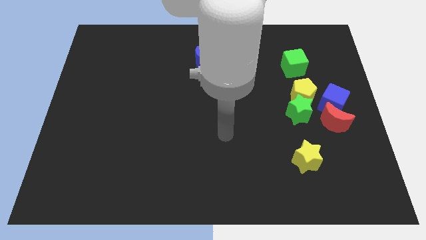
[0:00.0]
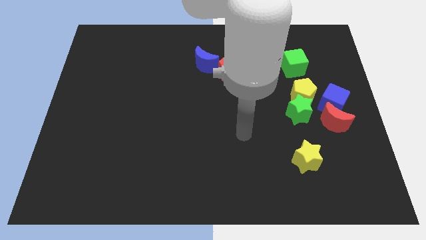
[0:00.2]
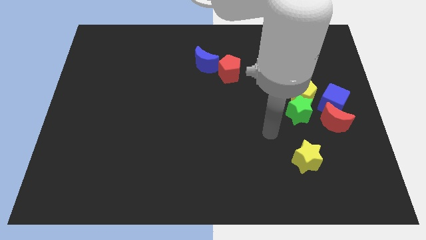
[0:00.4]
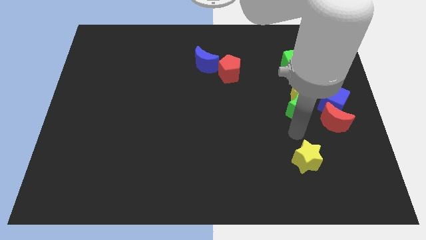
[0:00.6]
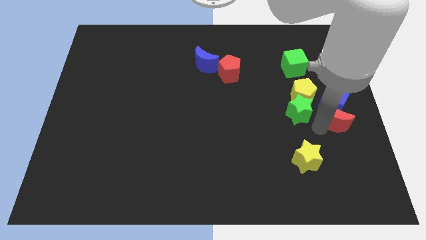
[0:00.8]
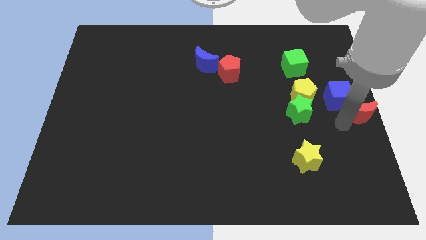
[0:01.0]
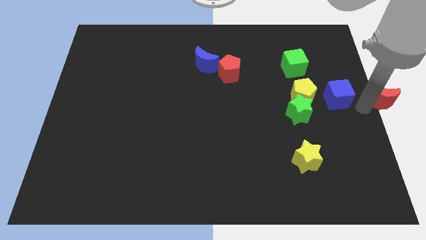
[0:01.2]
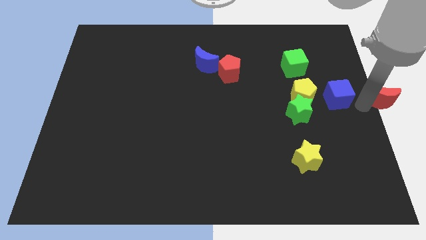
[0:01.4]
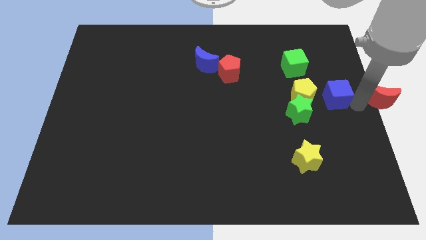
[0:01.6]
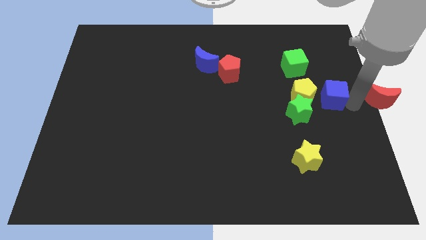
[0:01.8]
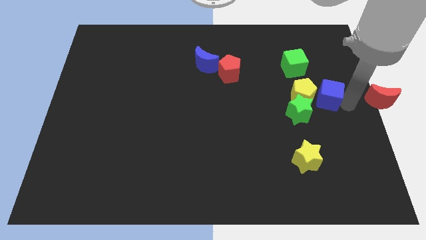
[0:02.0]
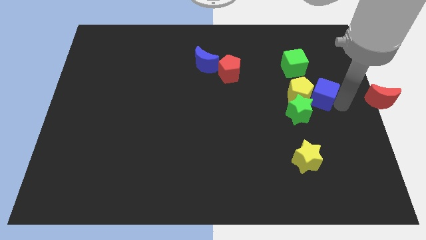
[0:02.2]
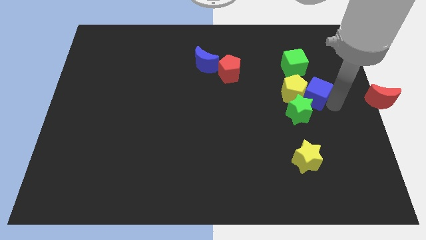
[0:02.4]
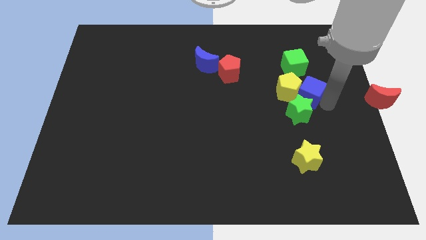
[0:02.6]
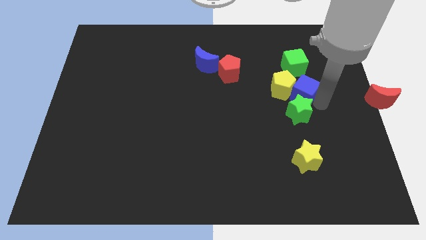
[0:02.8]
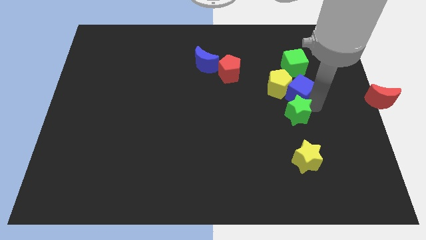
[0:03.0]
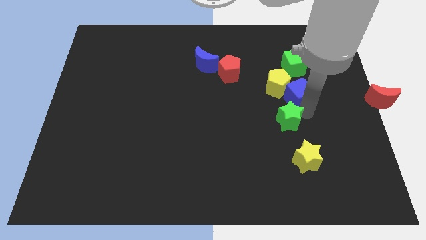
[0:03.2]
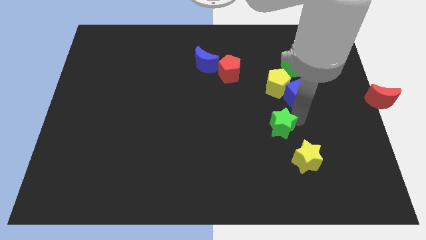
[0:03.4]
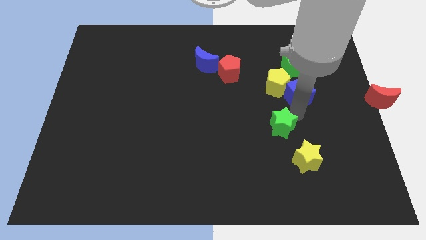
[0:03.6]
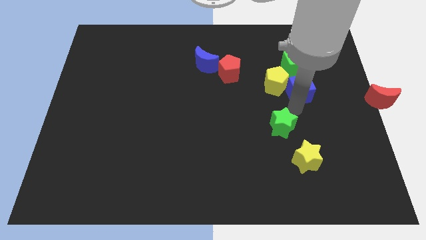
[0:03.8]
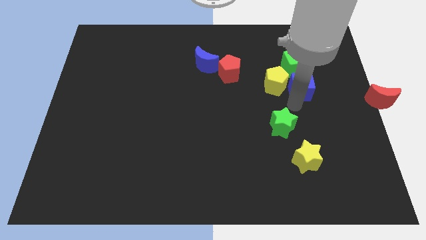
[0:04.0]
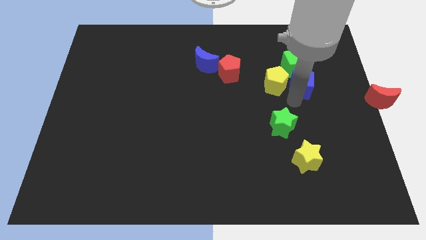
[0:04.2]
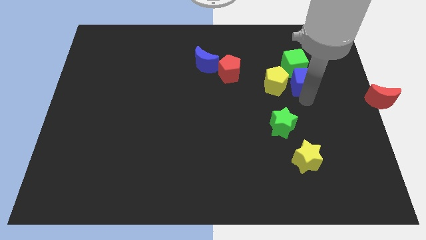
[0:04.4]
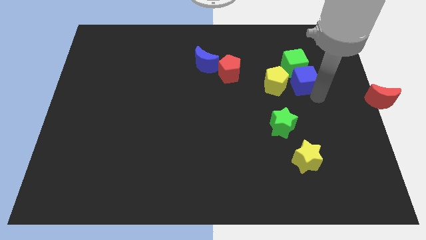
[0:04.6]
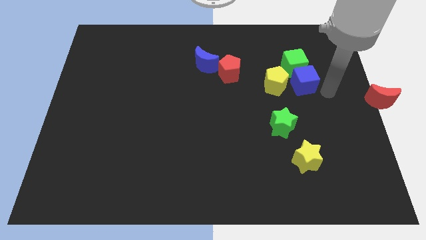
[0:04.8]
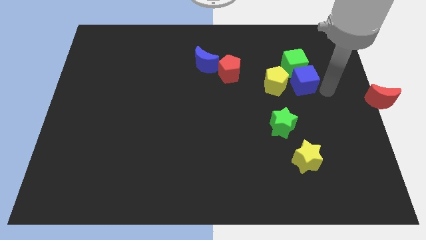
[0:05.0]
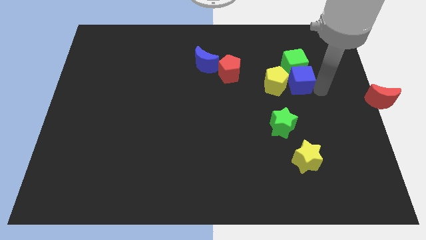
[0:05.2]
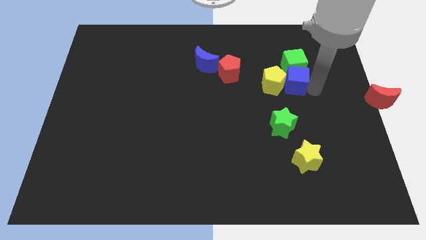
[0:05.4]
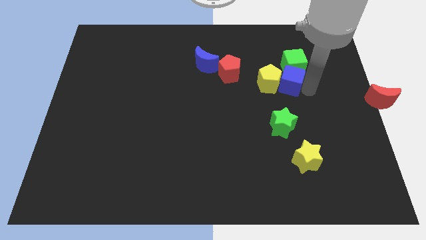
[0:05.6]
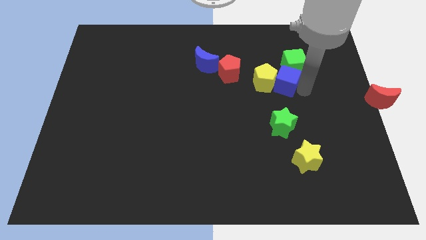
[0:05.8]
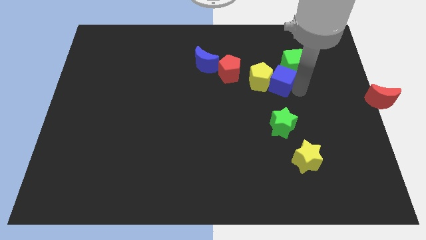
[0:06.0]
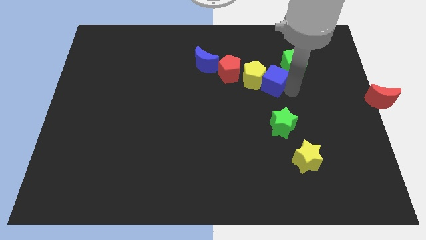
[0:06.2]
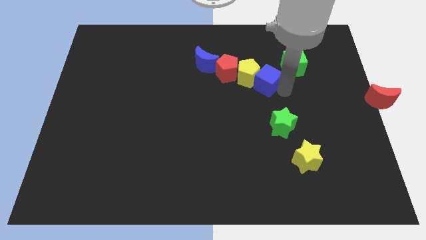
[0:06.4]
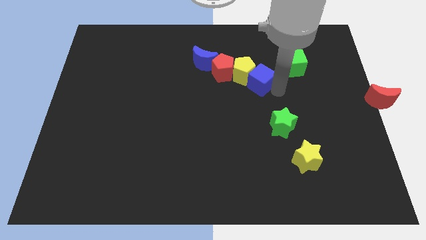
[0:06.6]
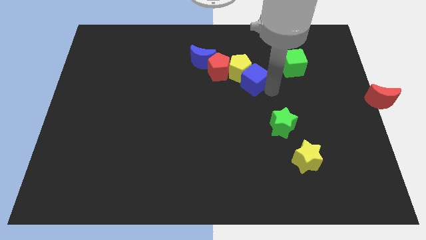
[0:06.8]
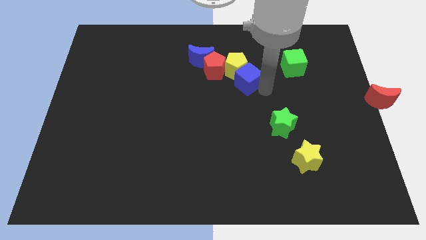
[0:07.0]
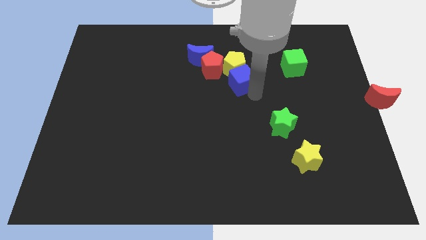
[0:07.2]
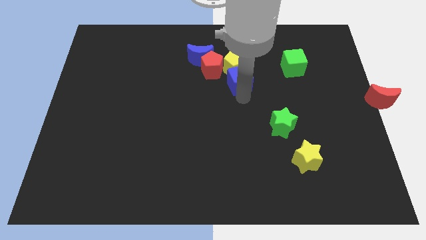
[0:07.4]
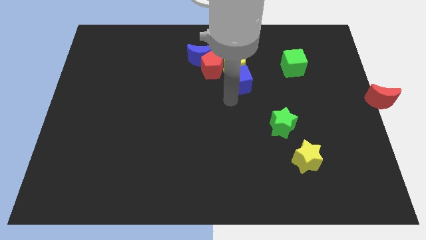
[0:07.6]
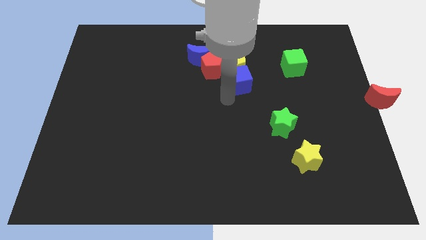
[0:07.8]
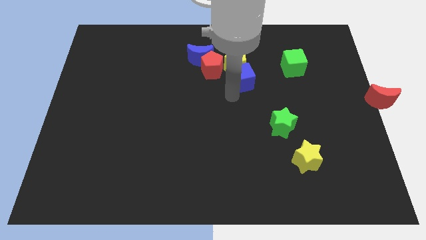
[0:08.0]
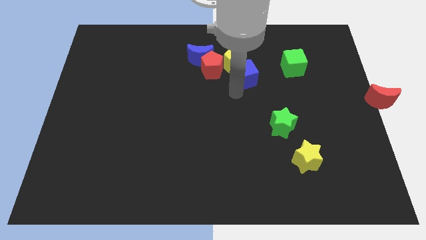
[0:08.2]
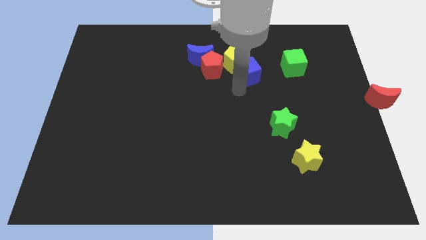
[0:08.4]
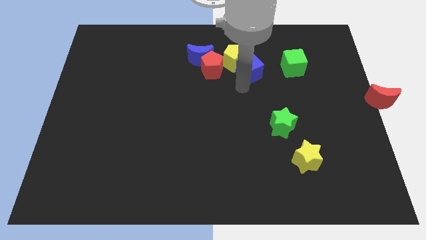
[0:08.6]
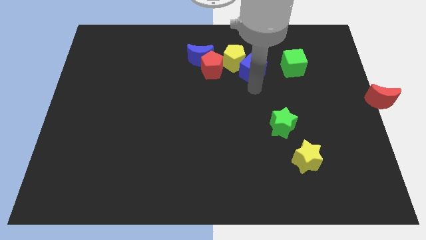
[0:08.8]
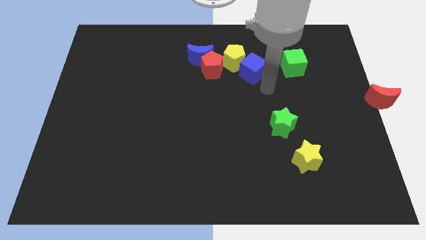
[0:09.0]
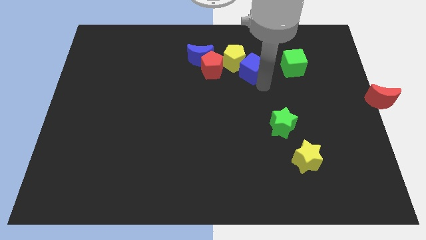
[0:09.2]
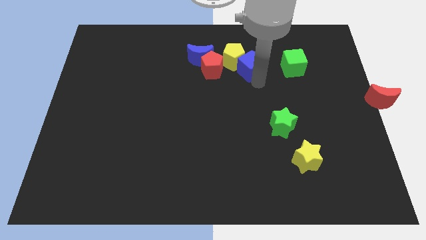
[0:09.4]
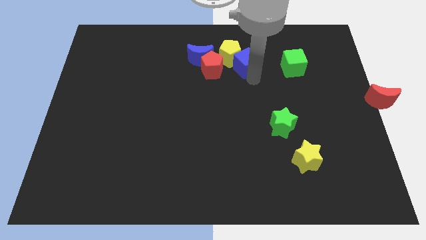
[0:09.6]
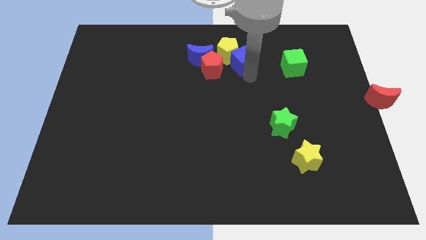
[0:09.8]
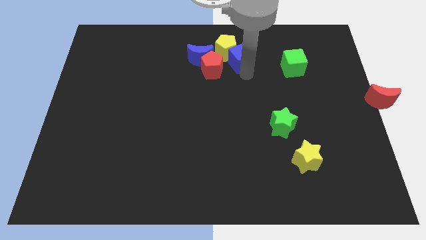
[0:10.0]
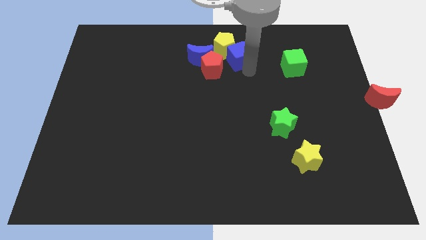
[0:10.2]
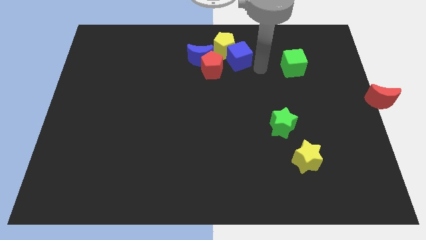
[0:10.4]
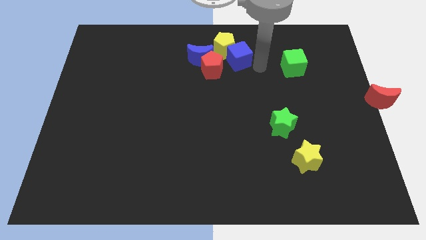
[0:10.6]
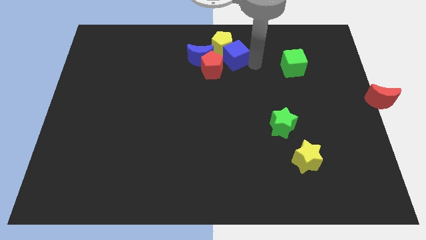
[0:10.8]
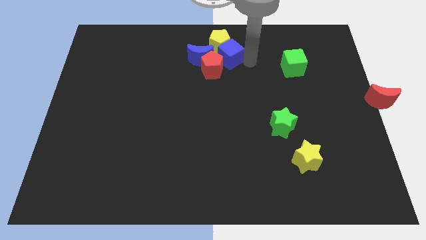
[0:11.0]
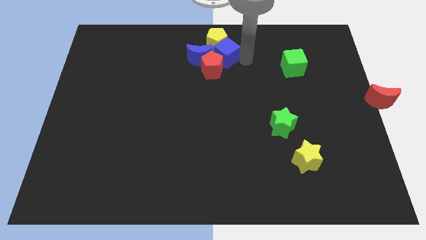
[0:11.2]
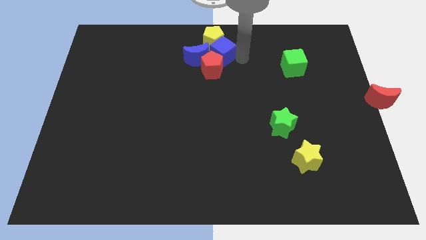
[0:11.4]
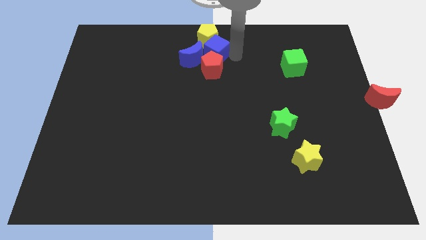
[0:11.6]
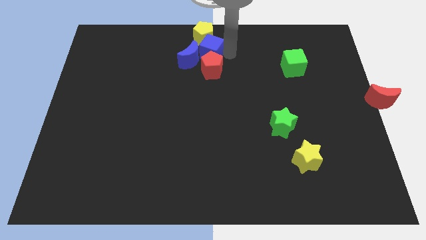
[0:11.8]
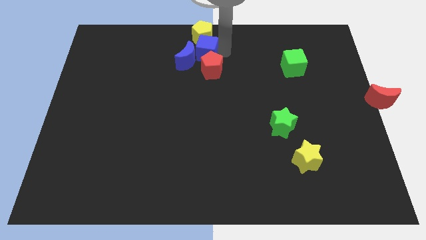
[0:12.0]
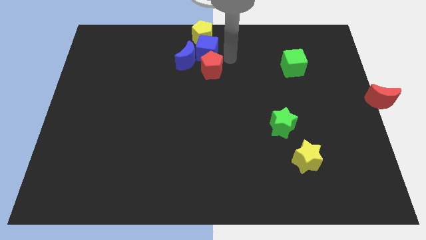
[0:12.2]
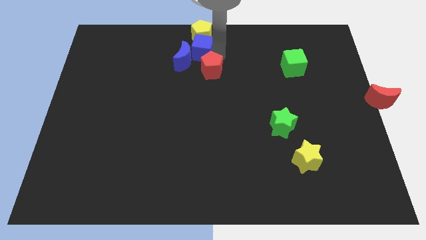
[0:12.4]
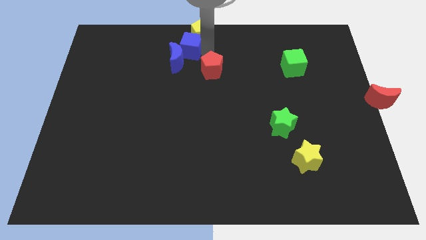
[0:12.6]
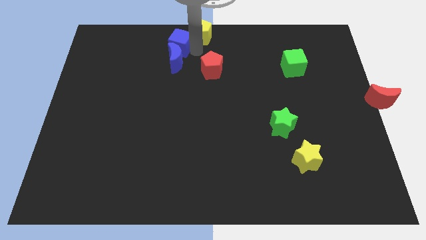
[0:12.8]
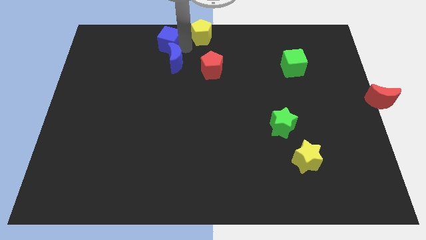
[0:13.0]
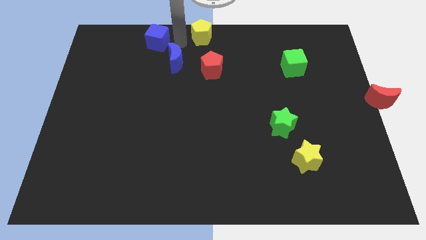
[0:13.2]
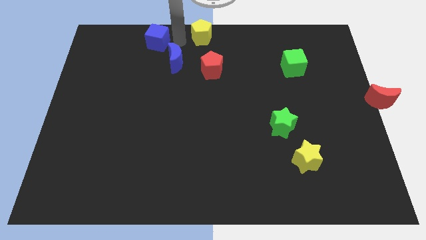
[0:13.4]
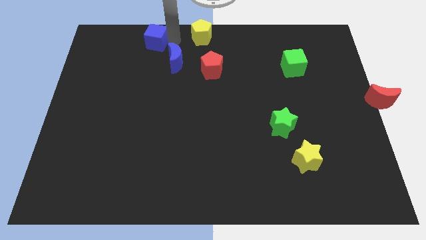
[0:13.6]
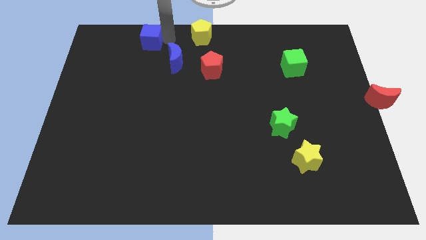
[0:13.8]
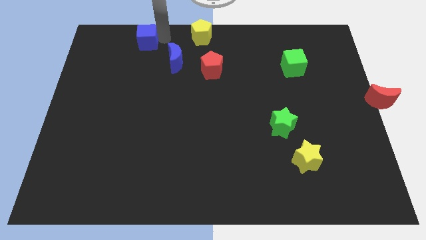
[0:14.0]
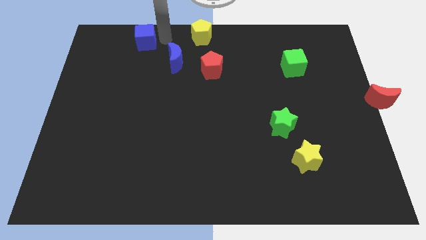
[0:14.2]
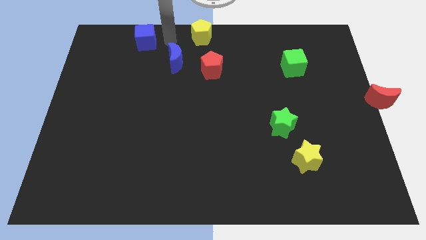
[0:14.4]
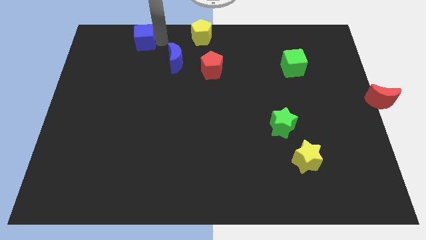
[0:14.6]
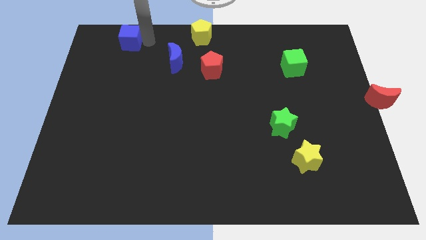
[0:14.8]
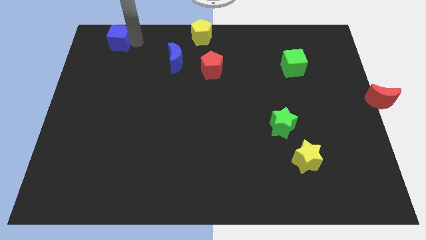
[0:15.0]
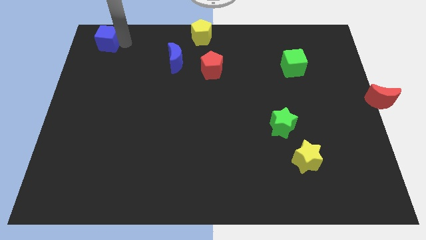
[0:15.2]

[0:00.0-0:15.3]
put the blue cube to the upper left corner

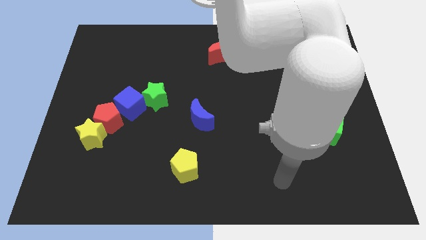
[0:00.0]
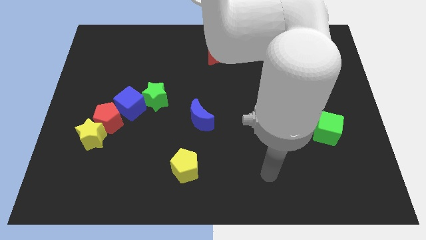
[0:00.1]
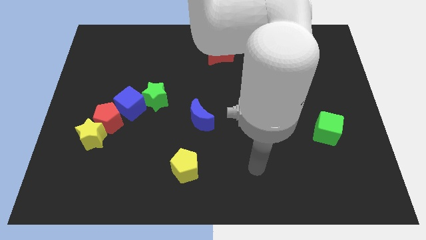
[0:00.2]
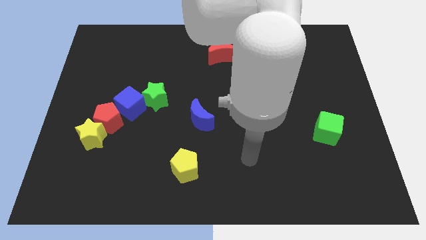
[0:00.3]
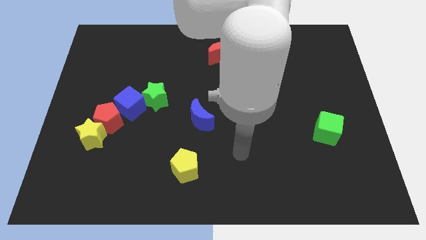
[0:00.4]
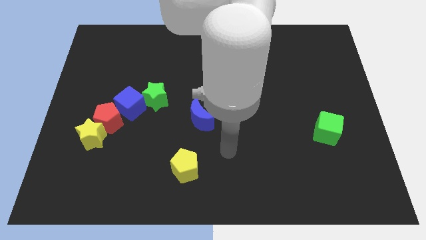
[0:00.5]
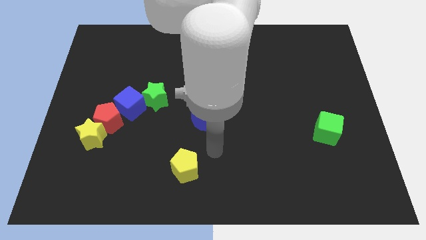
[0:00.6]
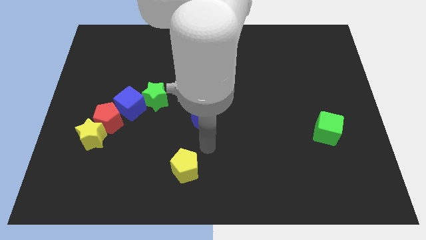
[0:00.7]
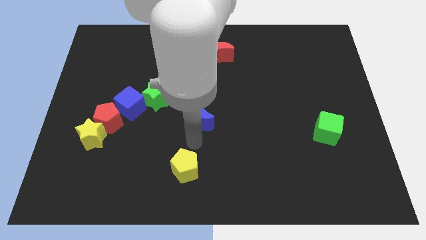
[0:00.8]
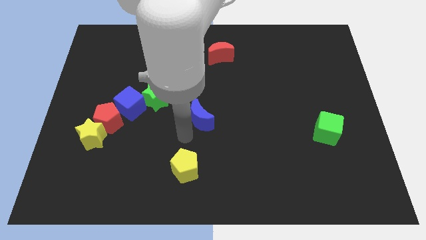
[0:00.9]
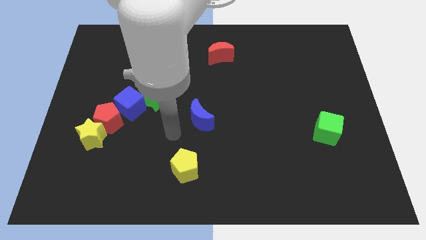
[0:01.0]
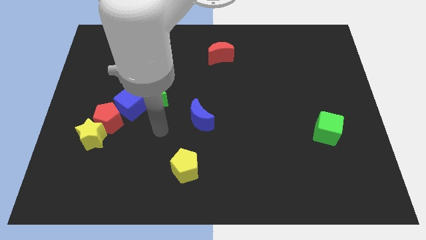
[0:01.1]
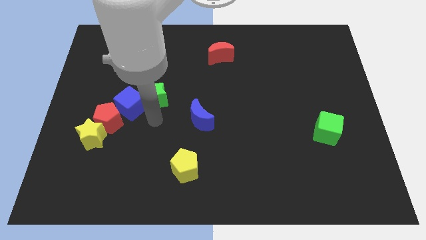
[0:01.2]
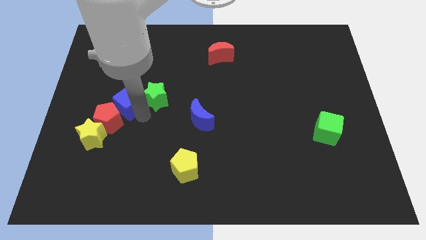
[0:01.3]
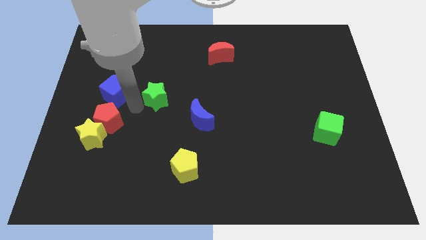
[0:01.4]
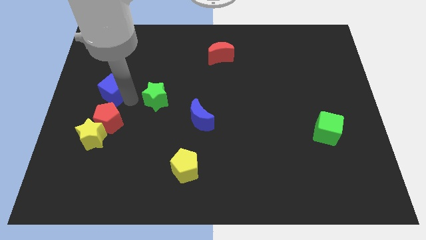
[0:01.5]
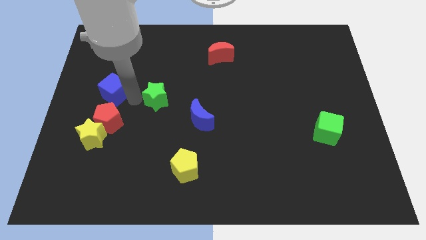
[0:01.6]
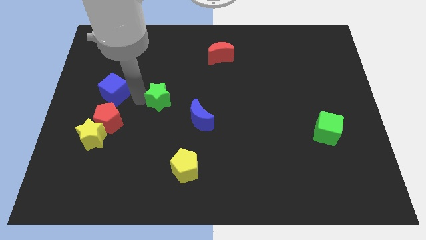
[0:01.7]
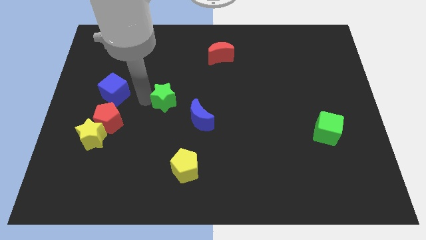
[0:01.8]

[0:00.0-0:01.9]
push the green star to the center
